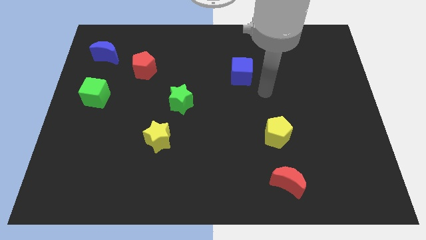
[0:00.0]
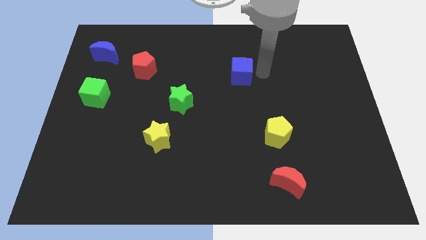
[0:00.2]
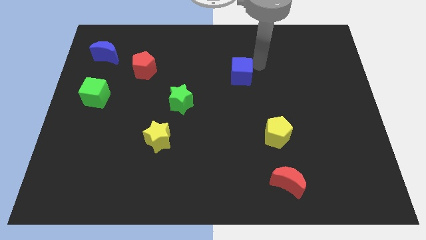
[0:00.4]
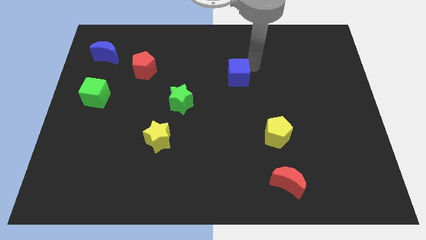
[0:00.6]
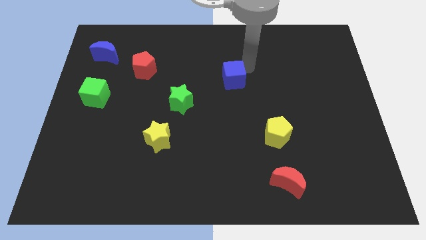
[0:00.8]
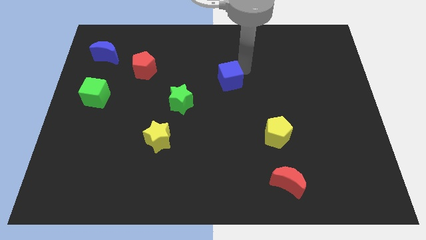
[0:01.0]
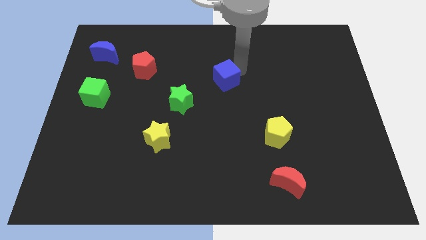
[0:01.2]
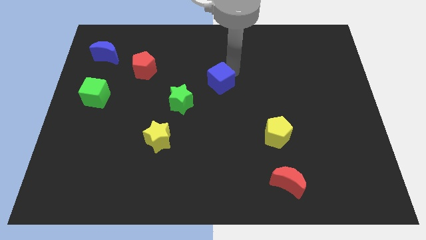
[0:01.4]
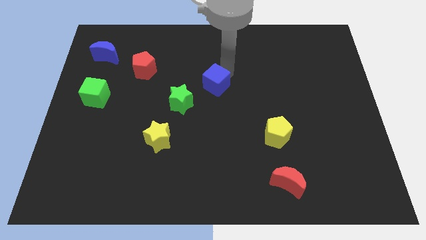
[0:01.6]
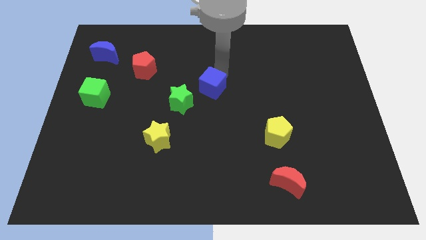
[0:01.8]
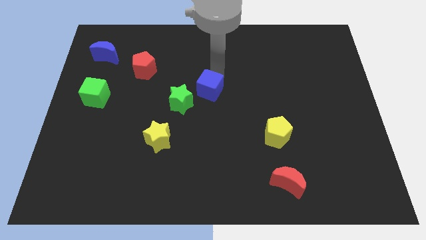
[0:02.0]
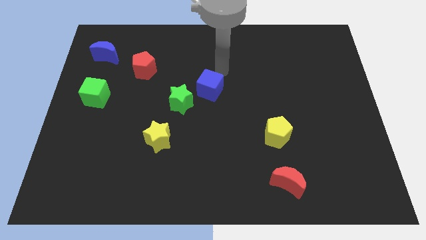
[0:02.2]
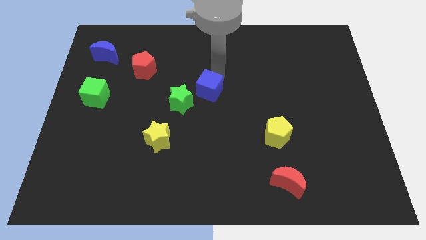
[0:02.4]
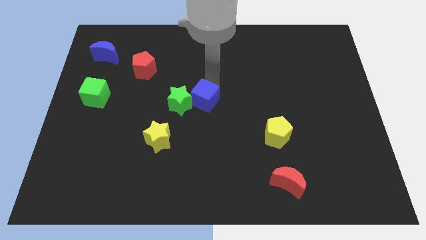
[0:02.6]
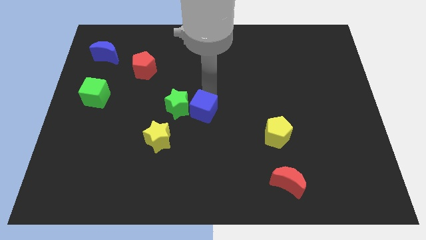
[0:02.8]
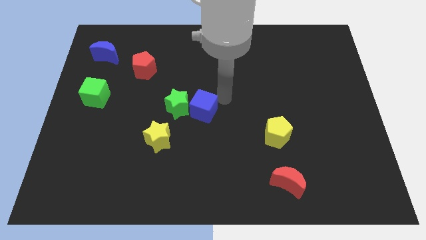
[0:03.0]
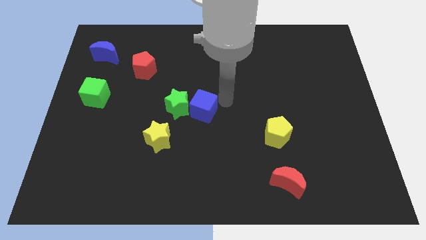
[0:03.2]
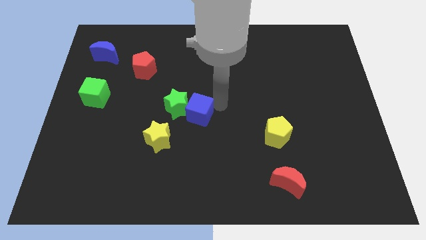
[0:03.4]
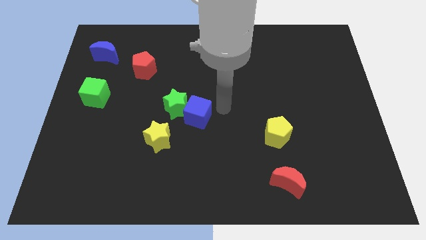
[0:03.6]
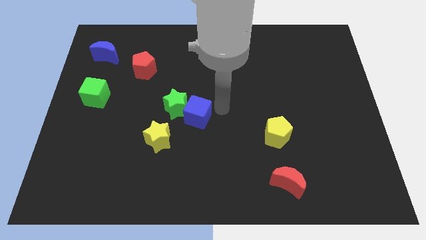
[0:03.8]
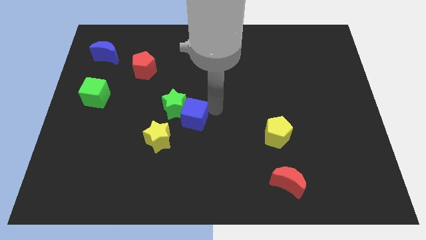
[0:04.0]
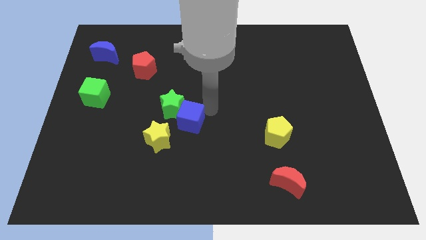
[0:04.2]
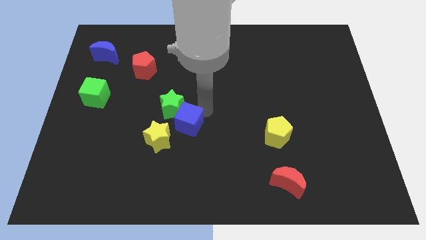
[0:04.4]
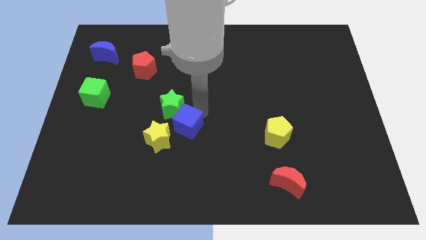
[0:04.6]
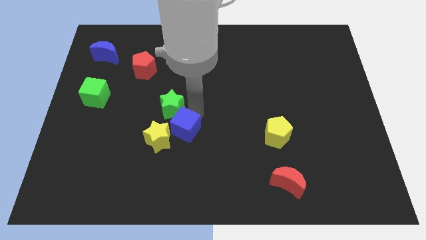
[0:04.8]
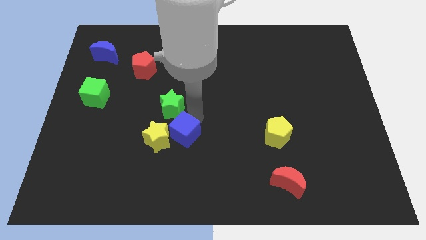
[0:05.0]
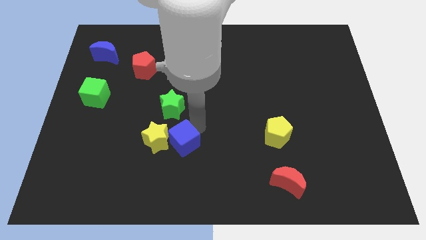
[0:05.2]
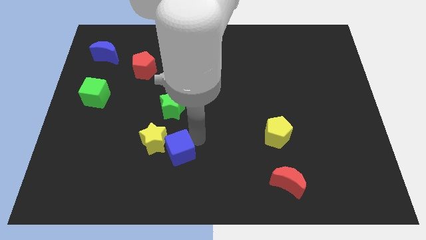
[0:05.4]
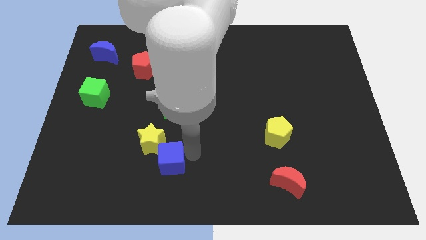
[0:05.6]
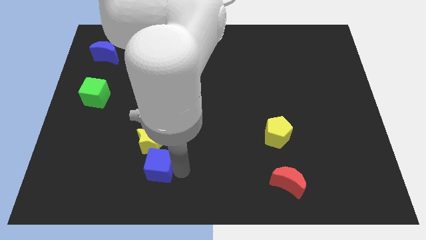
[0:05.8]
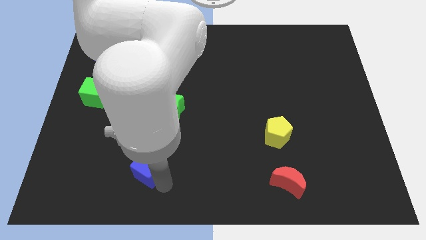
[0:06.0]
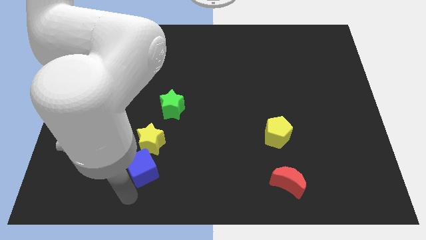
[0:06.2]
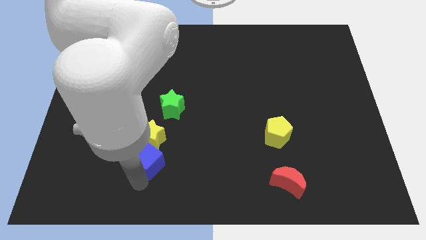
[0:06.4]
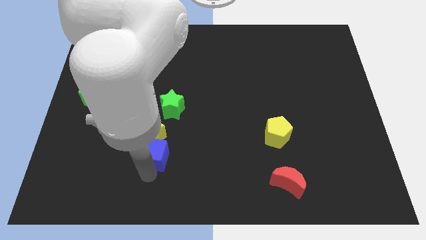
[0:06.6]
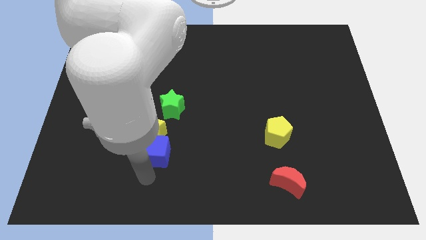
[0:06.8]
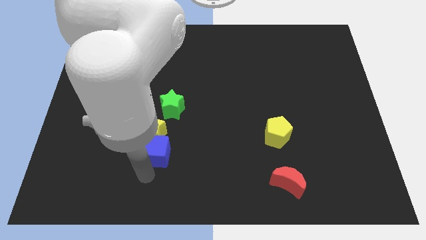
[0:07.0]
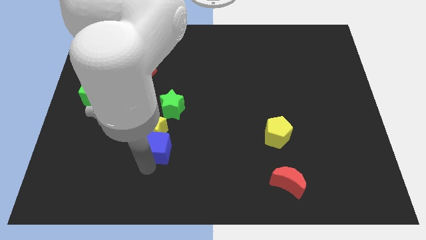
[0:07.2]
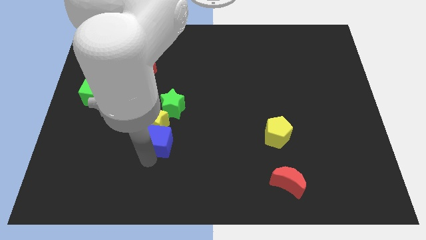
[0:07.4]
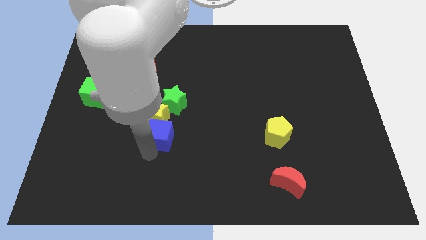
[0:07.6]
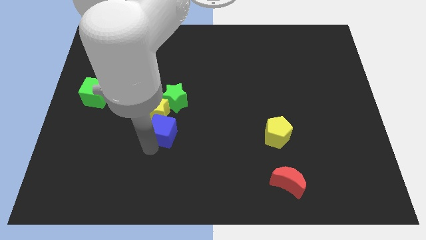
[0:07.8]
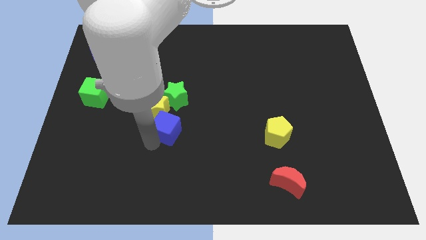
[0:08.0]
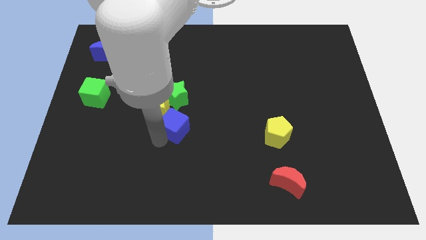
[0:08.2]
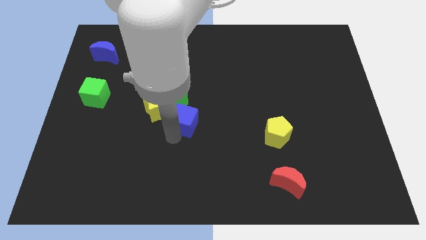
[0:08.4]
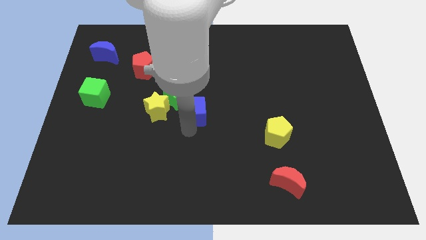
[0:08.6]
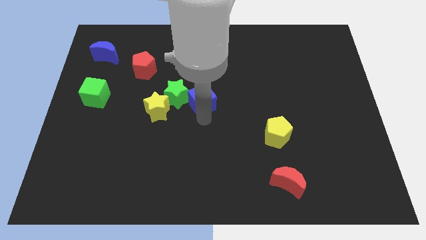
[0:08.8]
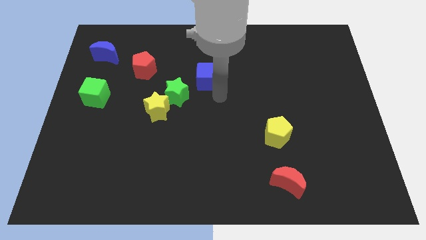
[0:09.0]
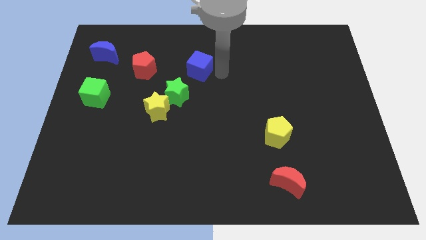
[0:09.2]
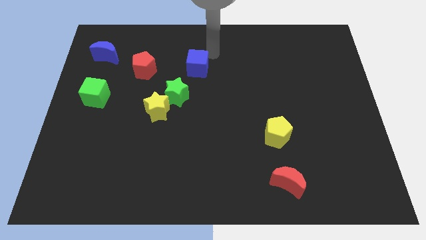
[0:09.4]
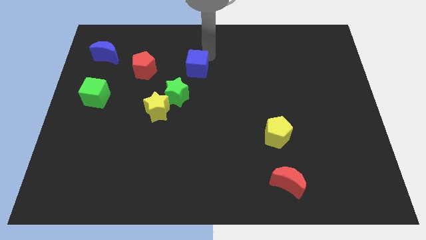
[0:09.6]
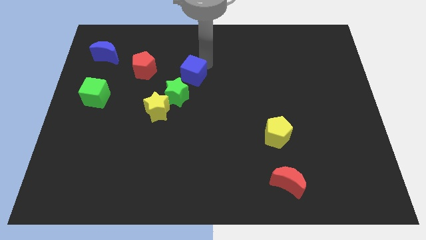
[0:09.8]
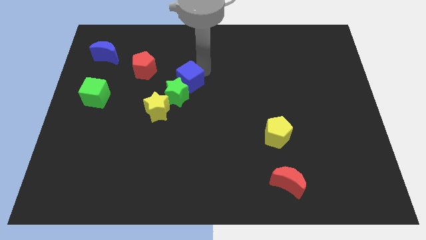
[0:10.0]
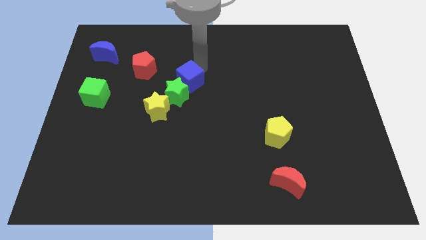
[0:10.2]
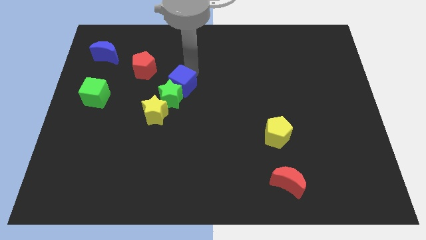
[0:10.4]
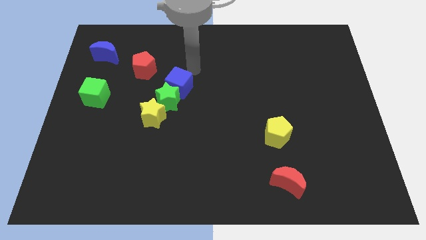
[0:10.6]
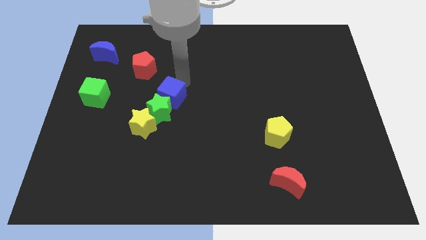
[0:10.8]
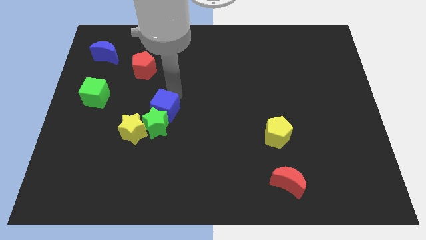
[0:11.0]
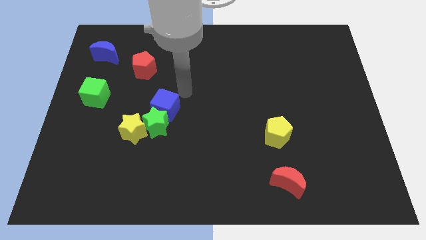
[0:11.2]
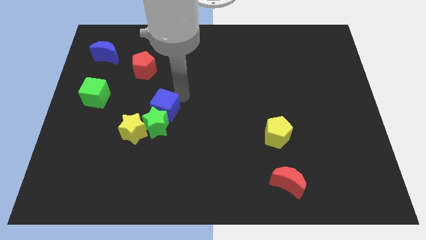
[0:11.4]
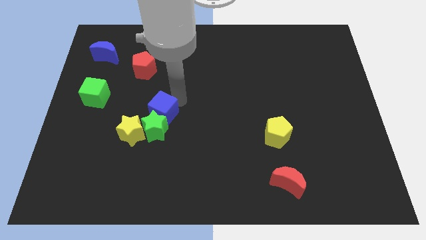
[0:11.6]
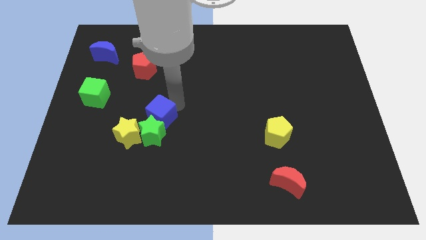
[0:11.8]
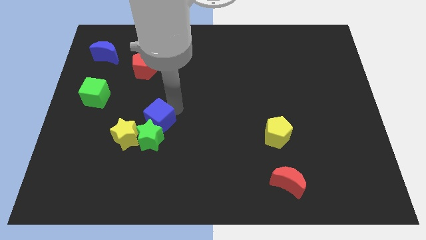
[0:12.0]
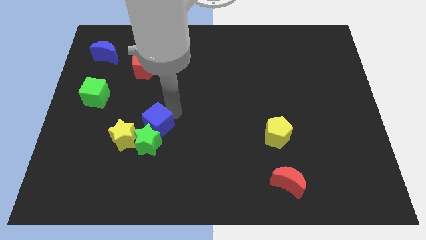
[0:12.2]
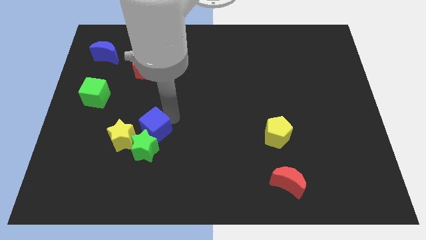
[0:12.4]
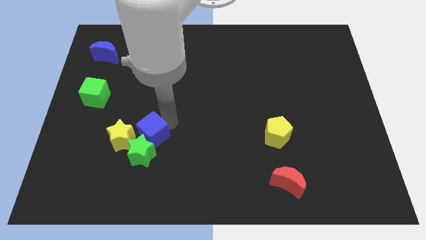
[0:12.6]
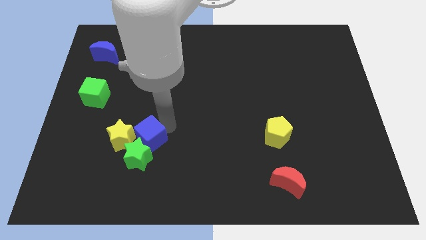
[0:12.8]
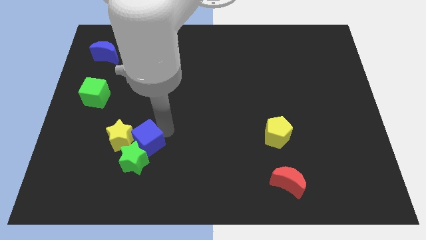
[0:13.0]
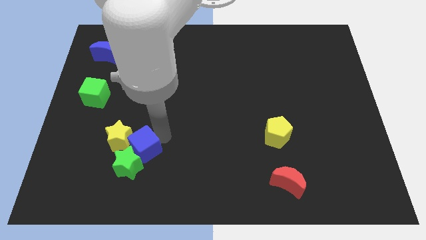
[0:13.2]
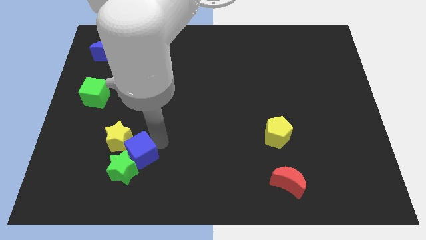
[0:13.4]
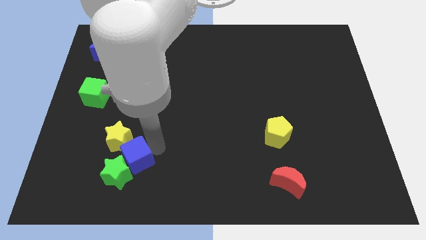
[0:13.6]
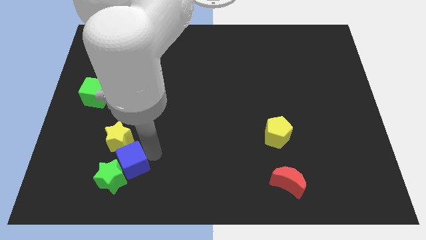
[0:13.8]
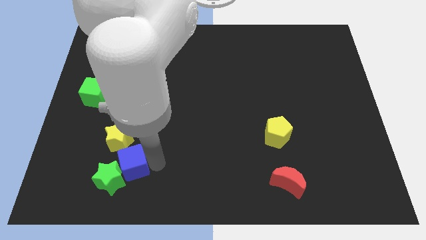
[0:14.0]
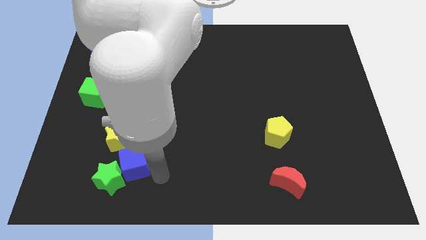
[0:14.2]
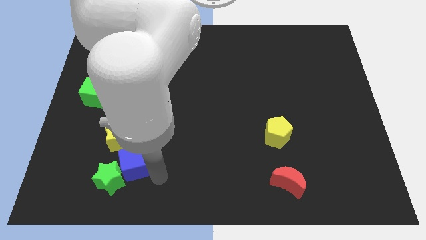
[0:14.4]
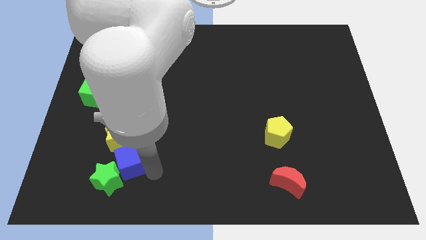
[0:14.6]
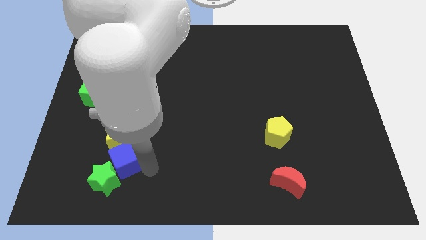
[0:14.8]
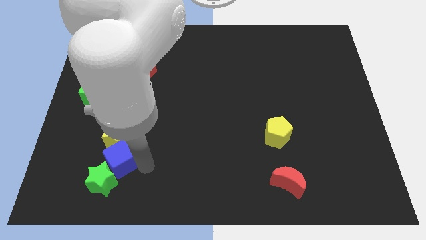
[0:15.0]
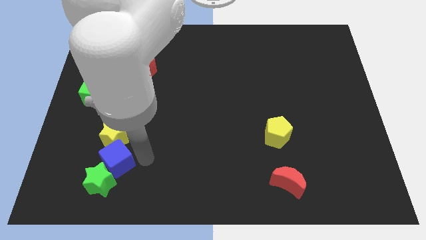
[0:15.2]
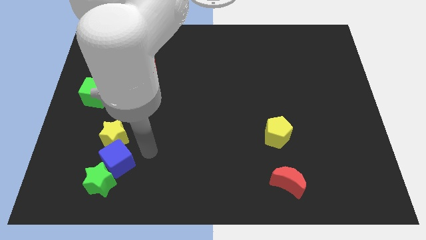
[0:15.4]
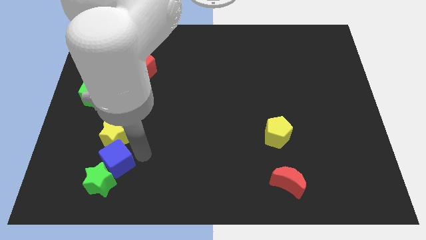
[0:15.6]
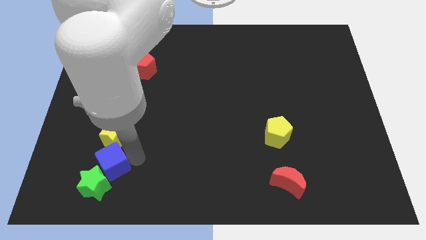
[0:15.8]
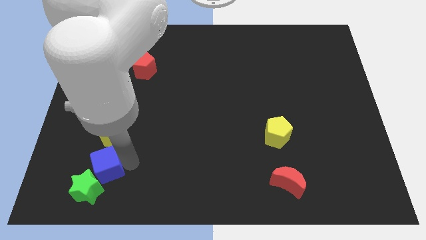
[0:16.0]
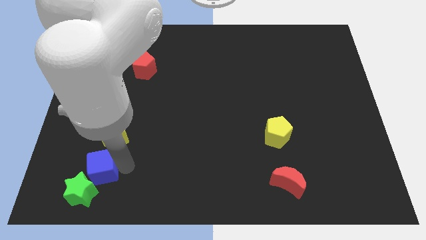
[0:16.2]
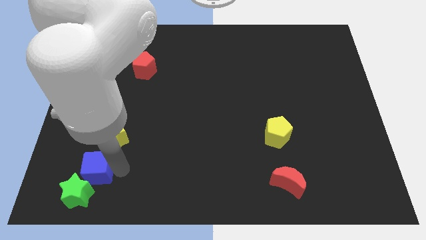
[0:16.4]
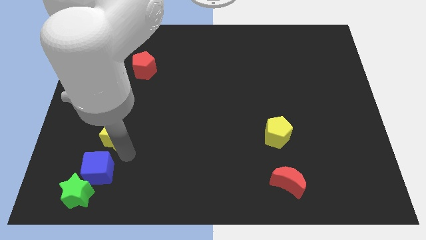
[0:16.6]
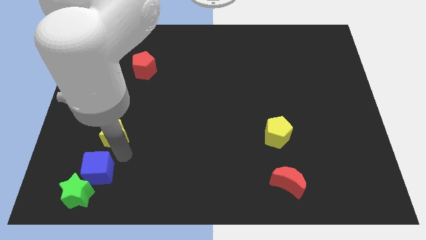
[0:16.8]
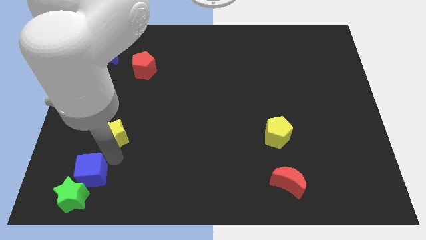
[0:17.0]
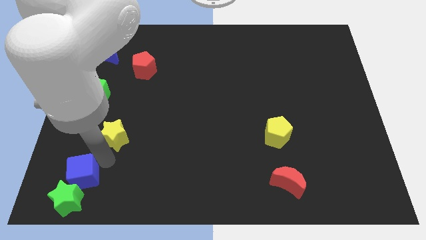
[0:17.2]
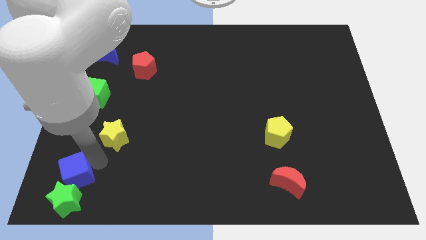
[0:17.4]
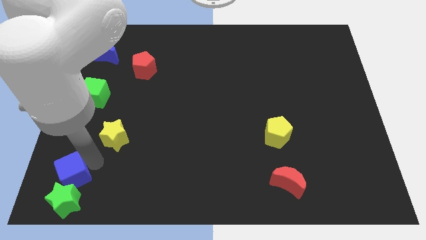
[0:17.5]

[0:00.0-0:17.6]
move the blue cube to the bottom left corner
